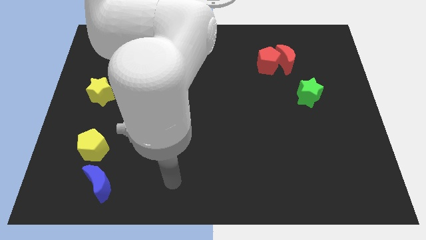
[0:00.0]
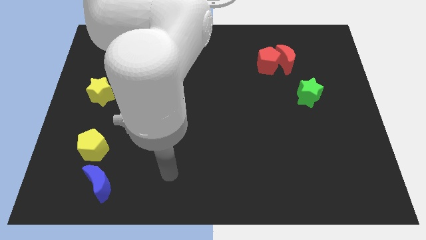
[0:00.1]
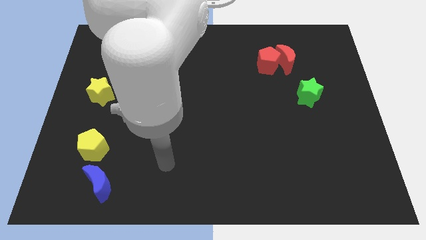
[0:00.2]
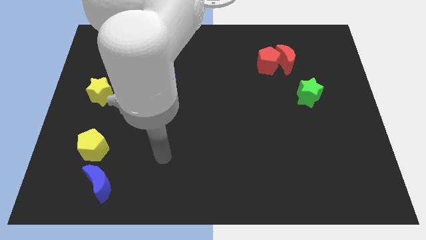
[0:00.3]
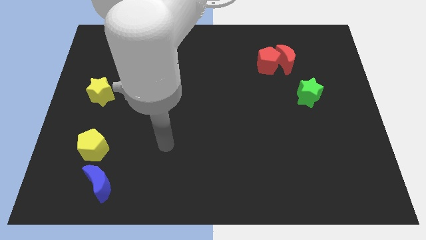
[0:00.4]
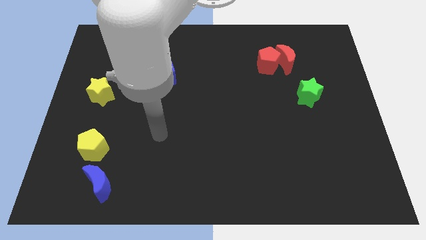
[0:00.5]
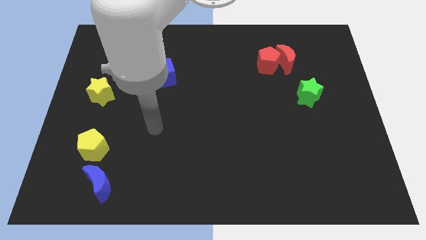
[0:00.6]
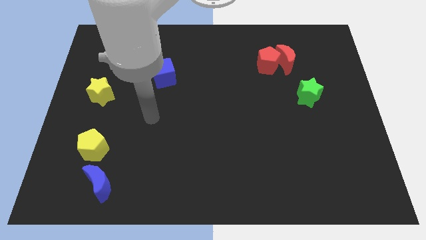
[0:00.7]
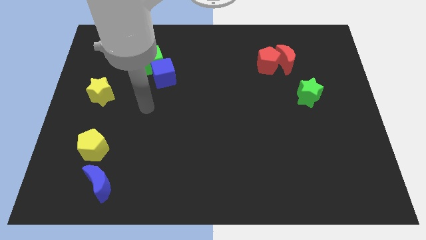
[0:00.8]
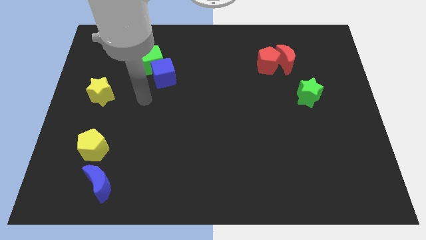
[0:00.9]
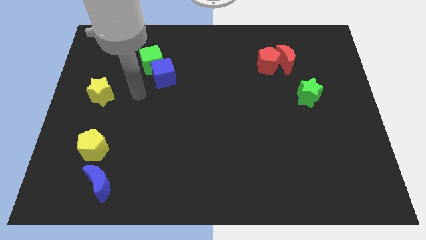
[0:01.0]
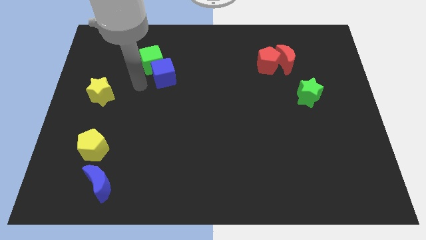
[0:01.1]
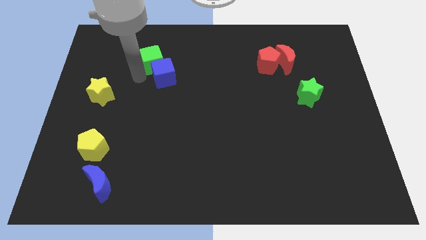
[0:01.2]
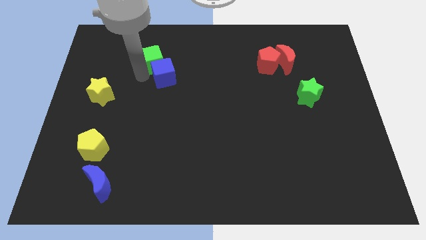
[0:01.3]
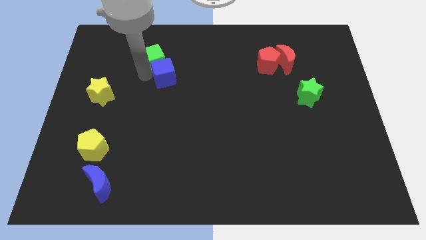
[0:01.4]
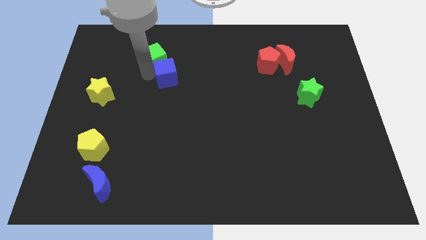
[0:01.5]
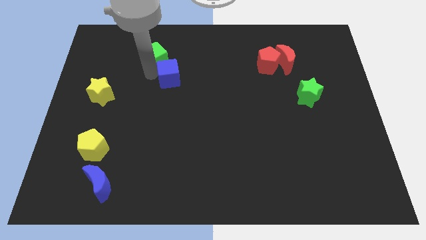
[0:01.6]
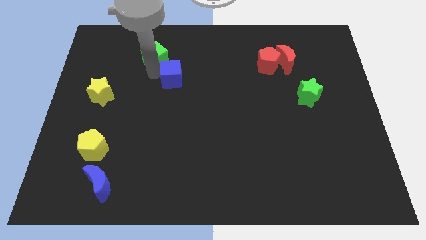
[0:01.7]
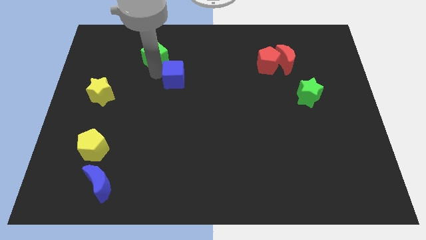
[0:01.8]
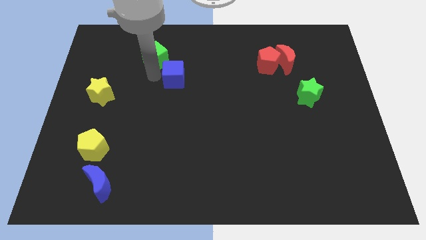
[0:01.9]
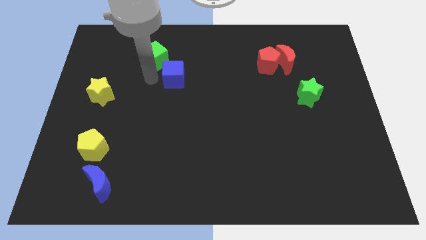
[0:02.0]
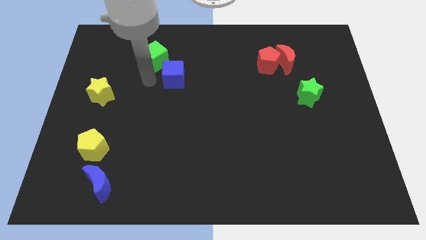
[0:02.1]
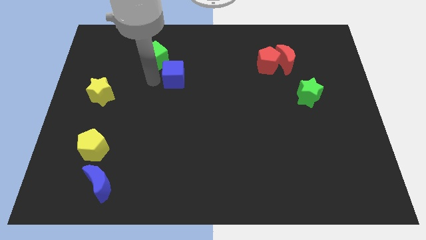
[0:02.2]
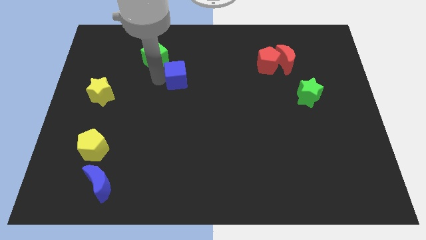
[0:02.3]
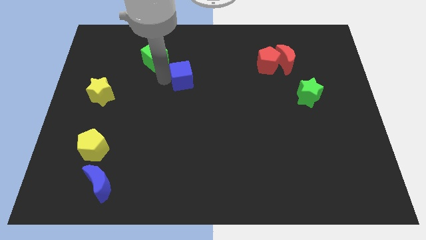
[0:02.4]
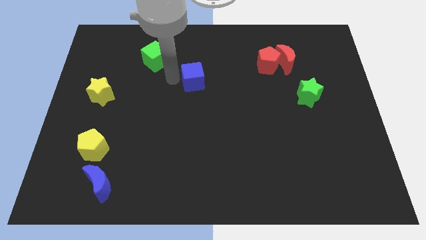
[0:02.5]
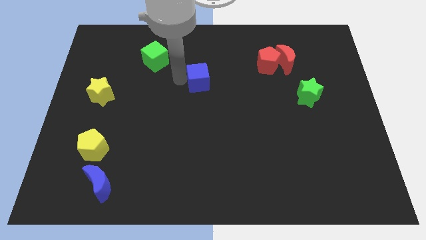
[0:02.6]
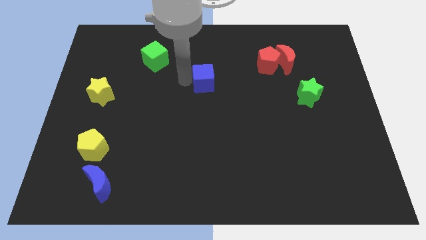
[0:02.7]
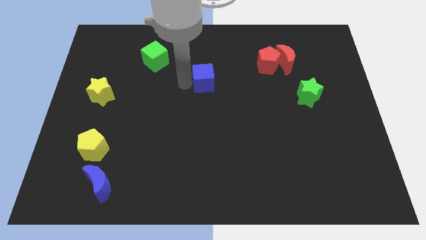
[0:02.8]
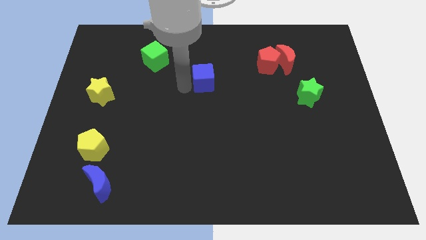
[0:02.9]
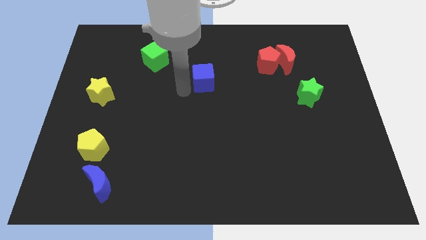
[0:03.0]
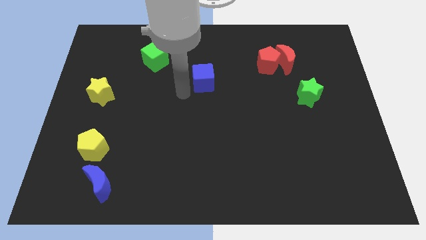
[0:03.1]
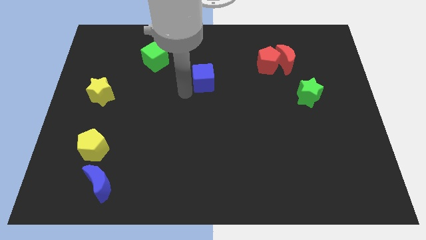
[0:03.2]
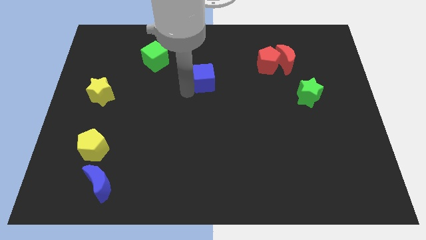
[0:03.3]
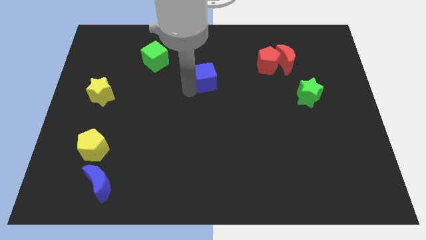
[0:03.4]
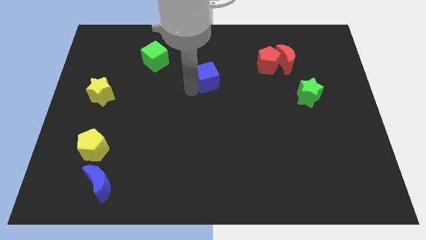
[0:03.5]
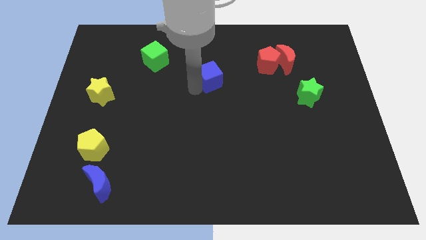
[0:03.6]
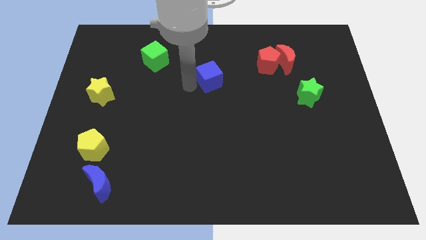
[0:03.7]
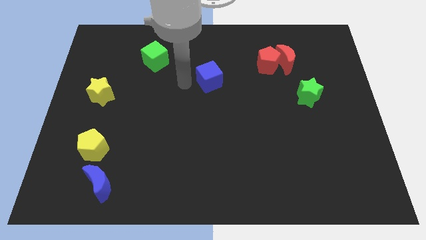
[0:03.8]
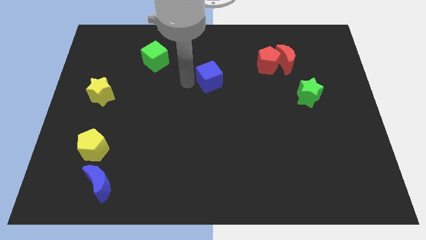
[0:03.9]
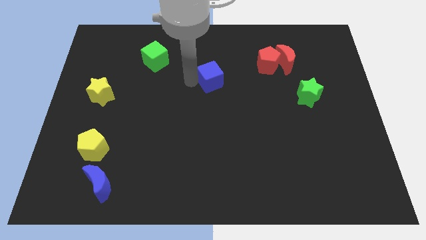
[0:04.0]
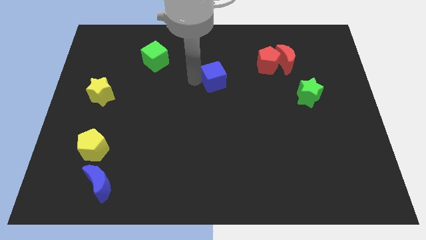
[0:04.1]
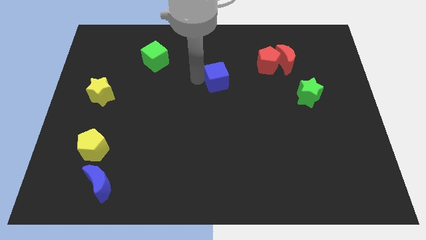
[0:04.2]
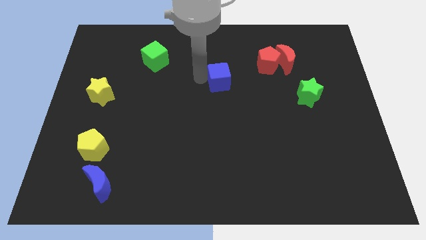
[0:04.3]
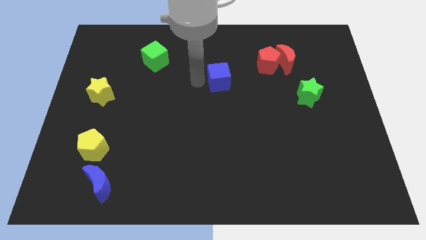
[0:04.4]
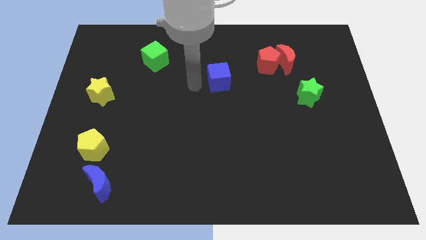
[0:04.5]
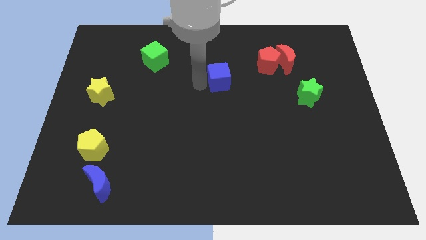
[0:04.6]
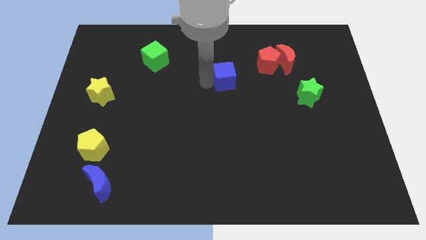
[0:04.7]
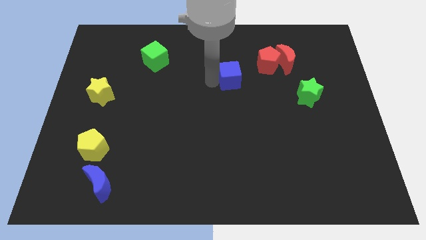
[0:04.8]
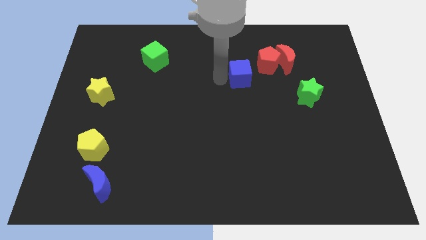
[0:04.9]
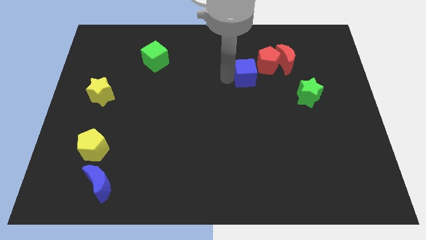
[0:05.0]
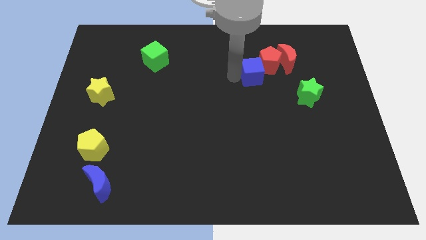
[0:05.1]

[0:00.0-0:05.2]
push the blue cube diagonally down and to the left of the red moon

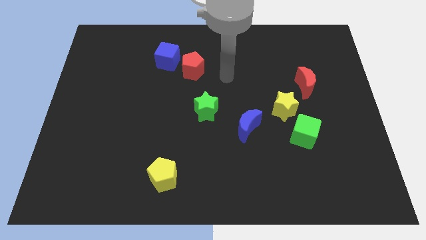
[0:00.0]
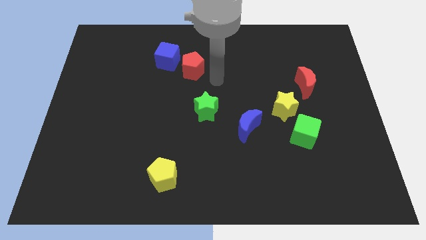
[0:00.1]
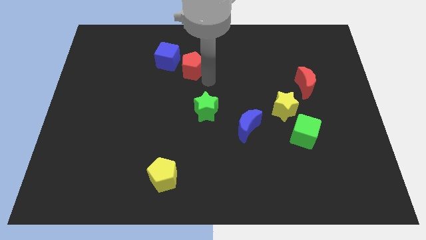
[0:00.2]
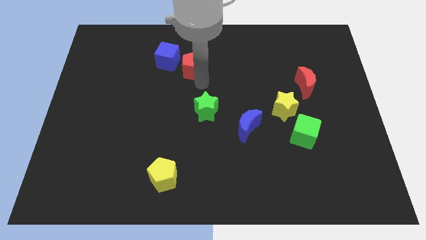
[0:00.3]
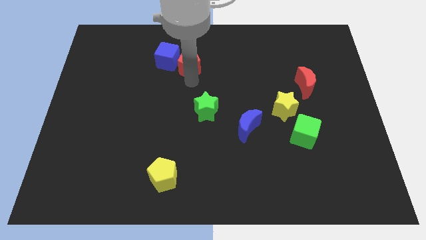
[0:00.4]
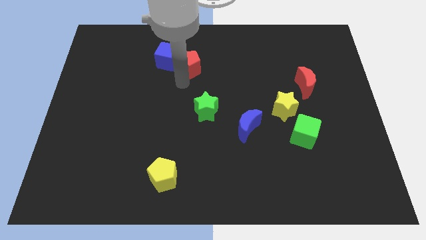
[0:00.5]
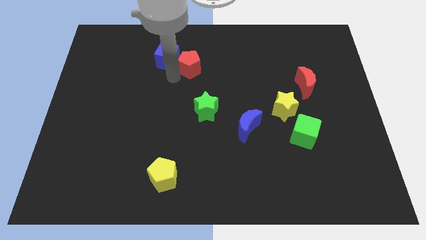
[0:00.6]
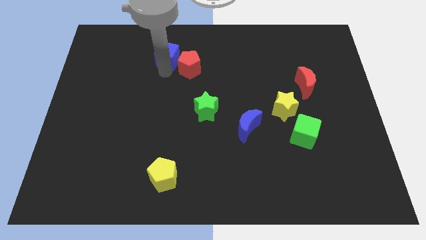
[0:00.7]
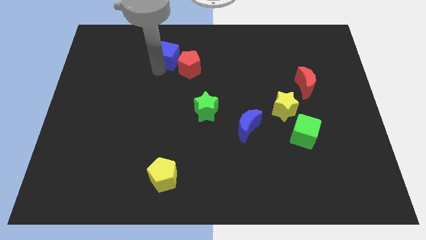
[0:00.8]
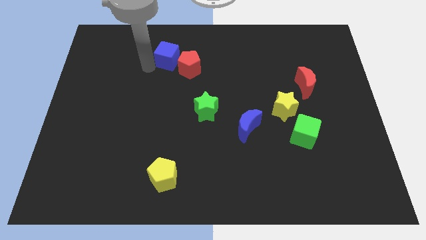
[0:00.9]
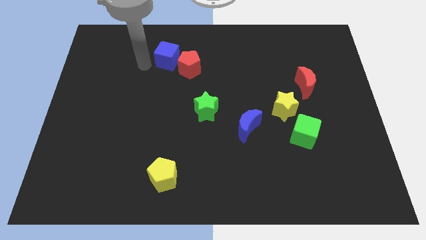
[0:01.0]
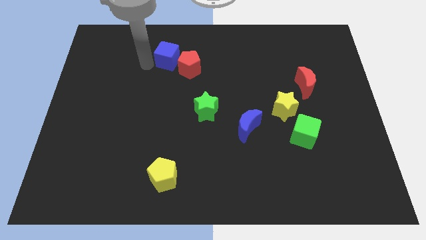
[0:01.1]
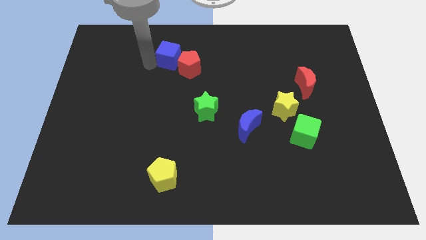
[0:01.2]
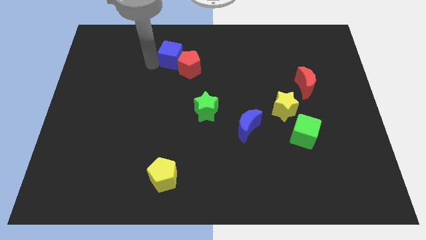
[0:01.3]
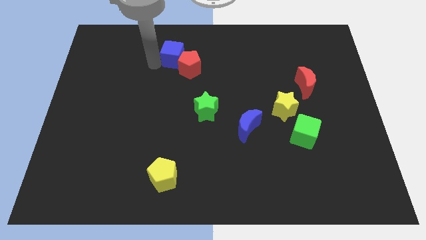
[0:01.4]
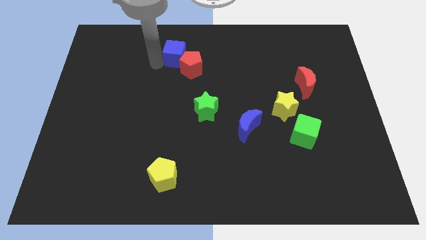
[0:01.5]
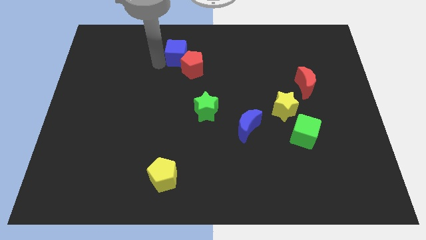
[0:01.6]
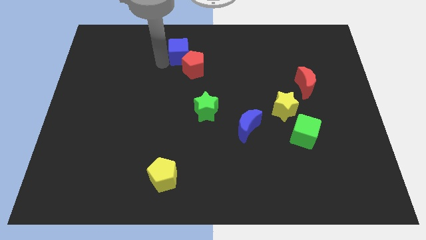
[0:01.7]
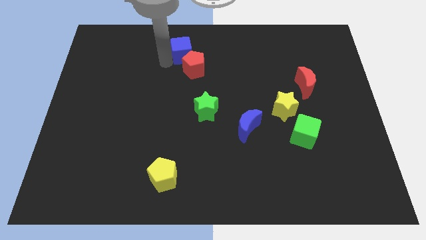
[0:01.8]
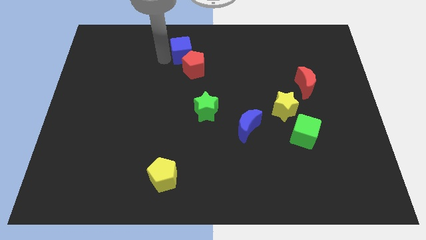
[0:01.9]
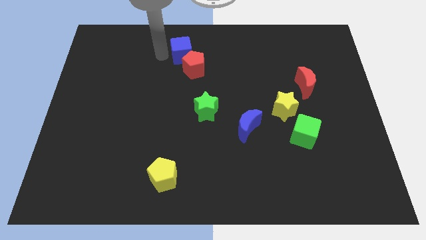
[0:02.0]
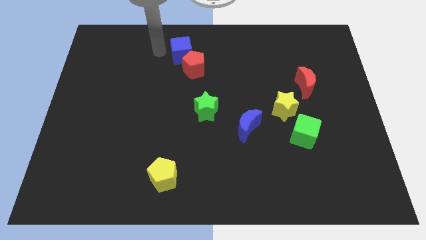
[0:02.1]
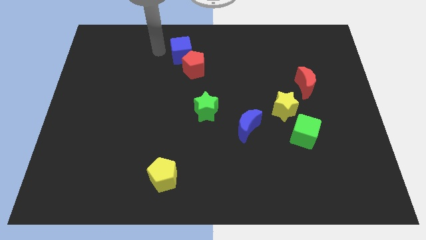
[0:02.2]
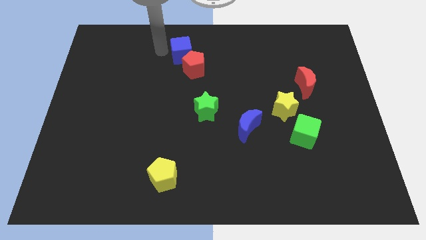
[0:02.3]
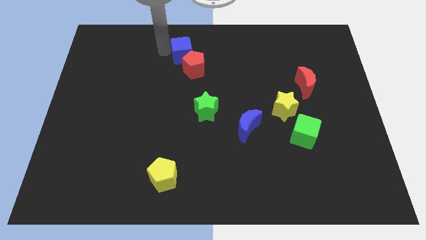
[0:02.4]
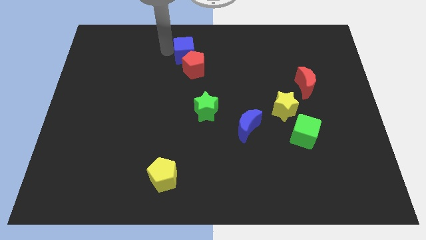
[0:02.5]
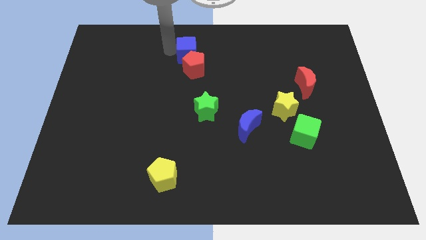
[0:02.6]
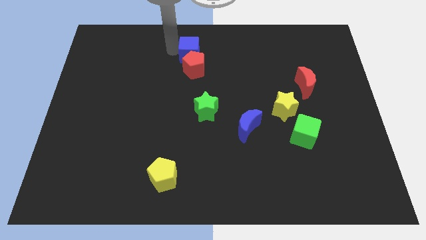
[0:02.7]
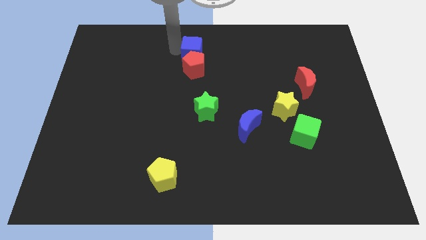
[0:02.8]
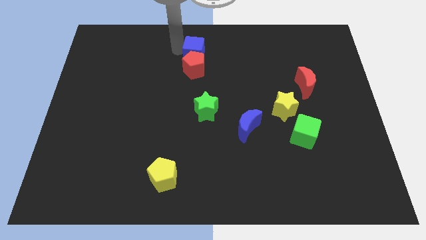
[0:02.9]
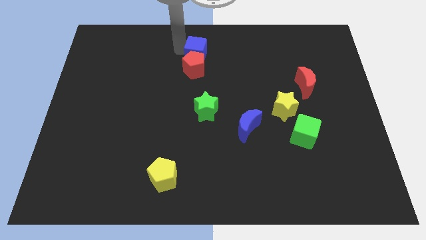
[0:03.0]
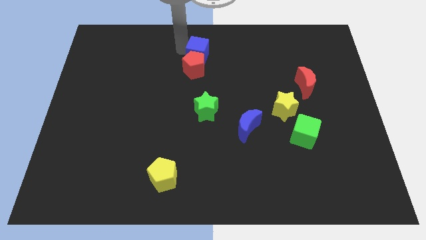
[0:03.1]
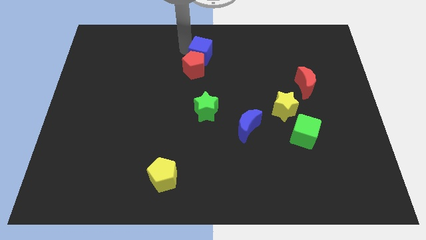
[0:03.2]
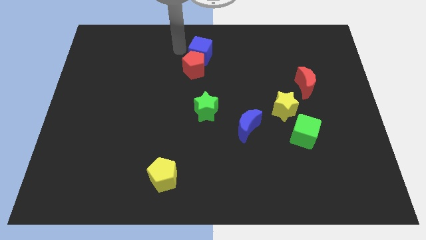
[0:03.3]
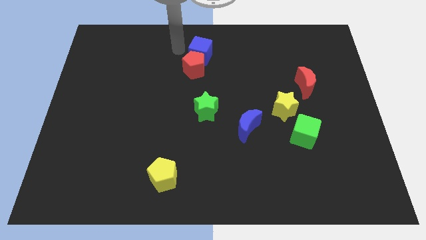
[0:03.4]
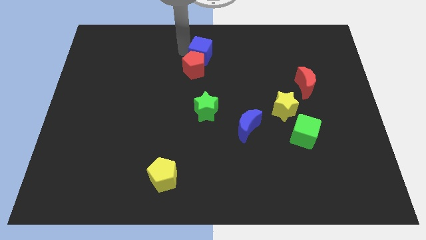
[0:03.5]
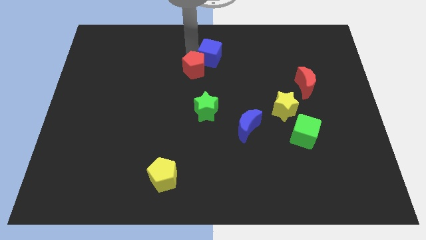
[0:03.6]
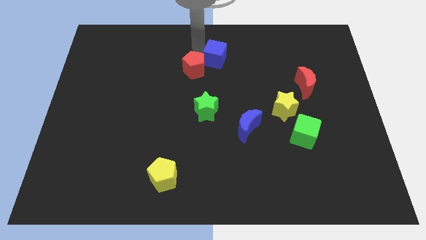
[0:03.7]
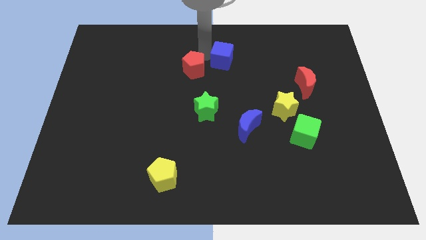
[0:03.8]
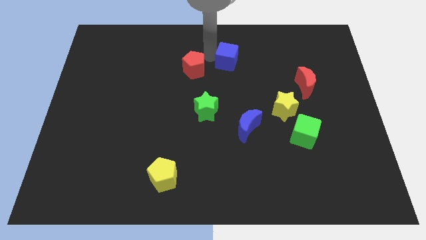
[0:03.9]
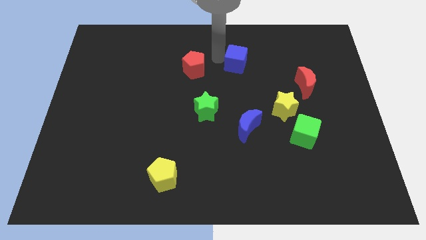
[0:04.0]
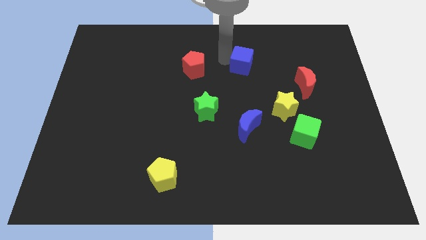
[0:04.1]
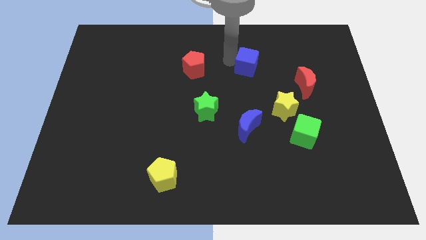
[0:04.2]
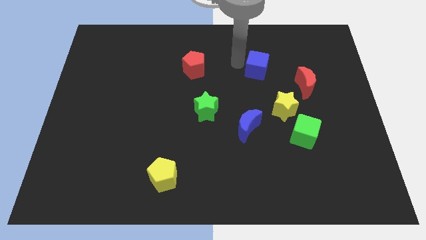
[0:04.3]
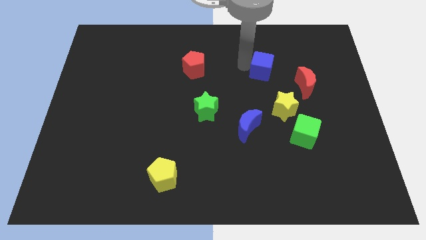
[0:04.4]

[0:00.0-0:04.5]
put the blue cube to the top left side of the red moon
